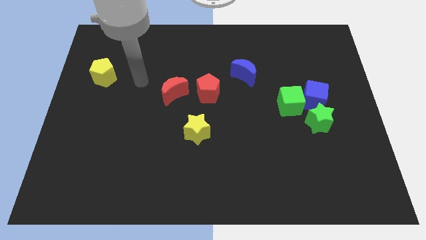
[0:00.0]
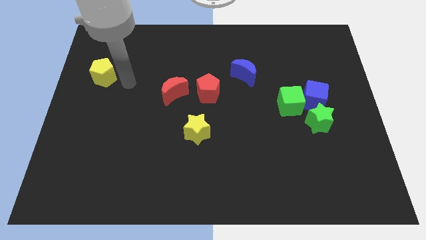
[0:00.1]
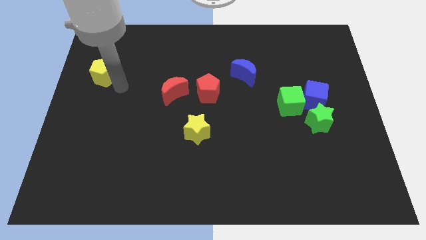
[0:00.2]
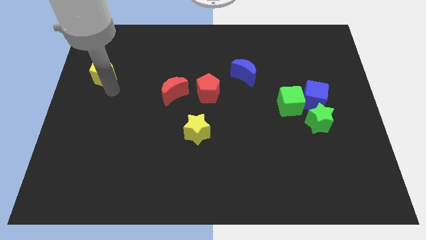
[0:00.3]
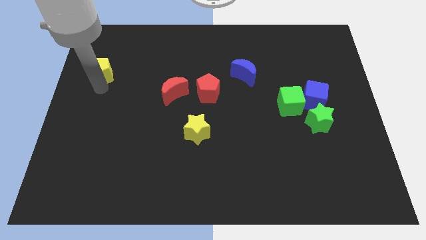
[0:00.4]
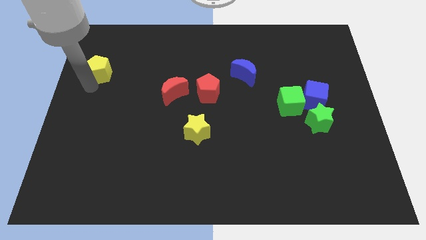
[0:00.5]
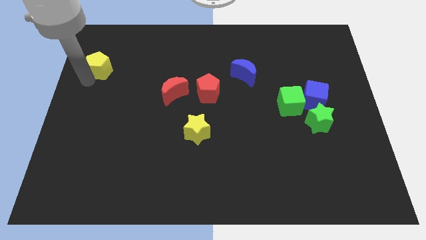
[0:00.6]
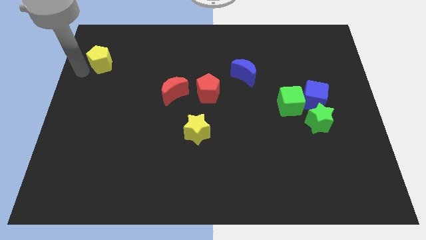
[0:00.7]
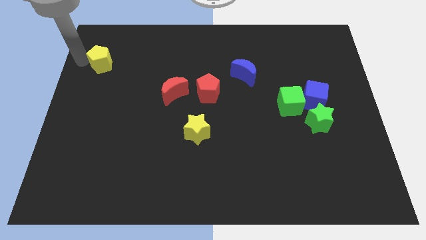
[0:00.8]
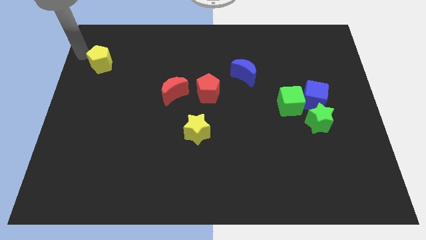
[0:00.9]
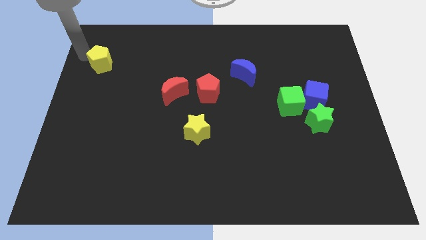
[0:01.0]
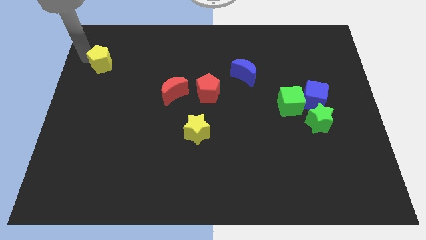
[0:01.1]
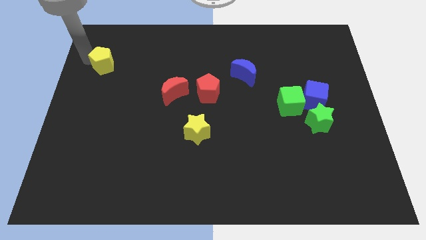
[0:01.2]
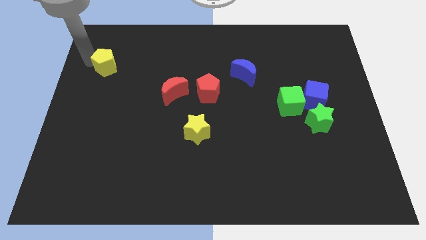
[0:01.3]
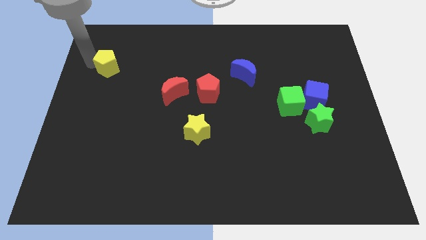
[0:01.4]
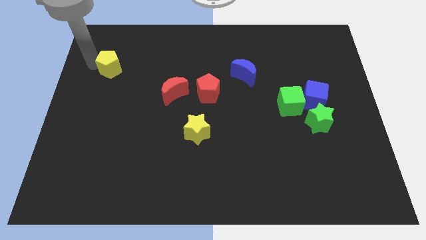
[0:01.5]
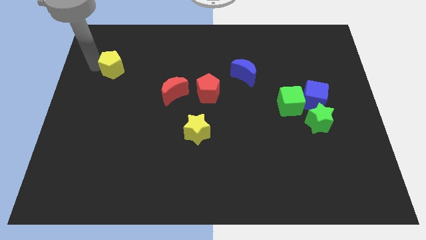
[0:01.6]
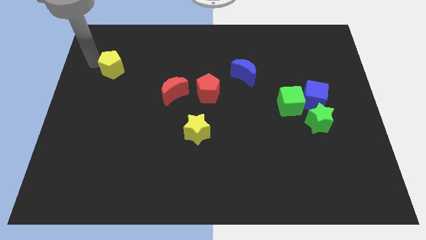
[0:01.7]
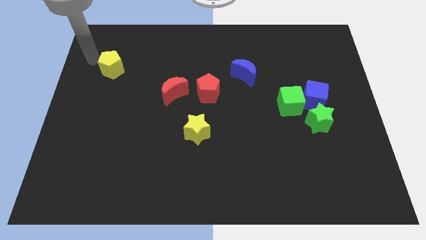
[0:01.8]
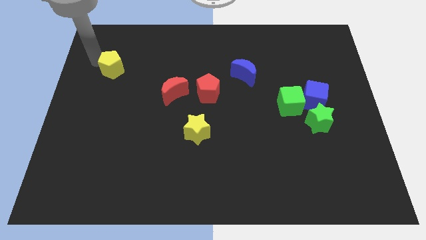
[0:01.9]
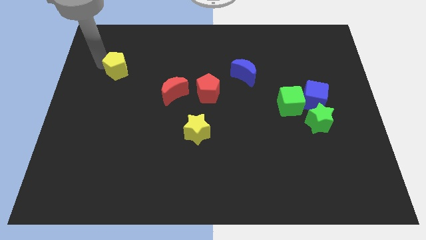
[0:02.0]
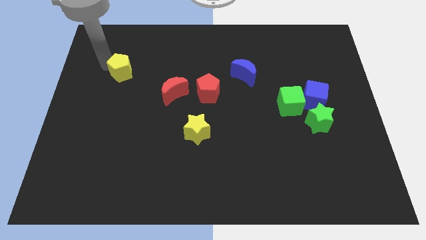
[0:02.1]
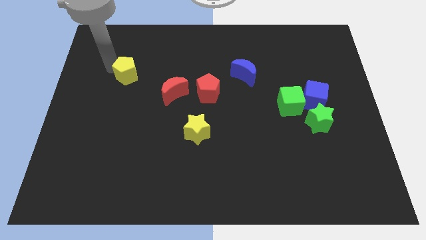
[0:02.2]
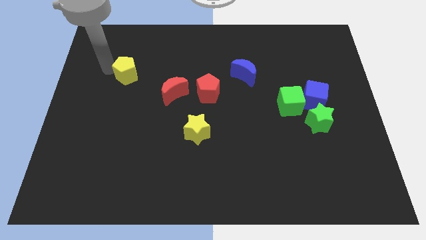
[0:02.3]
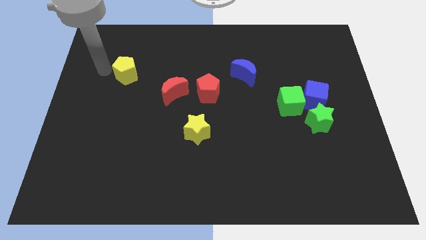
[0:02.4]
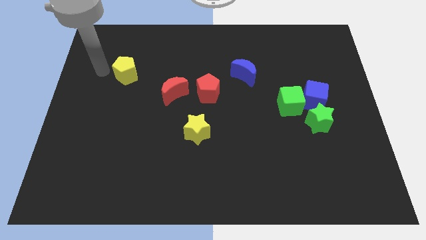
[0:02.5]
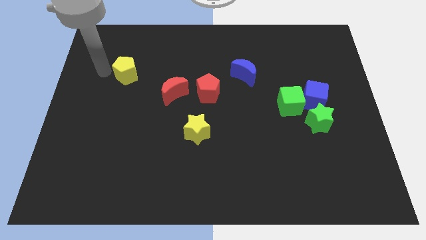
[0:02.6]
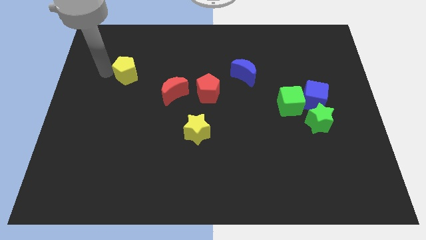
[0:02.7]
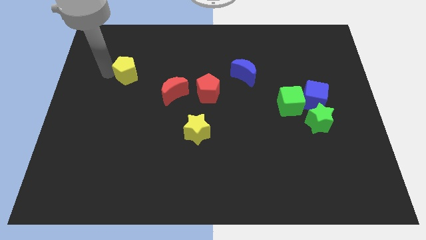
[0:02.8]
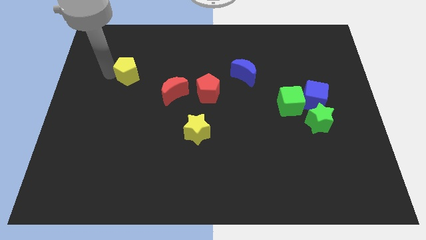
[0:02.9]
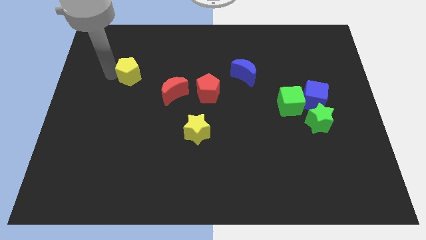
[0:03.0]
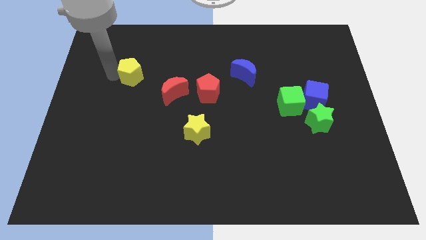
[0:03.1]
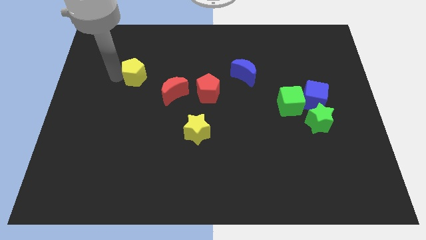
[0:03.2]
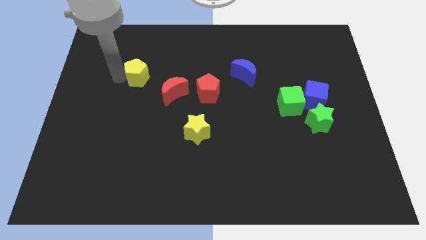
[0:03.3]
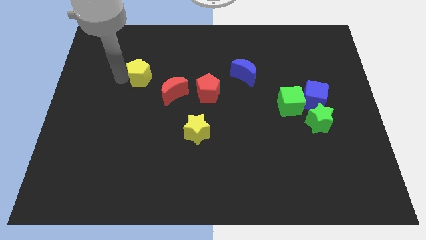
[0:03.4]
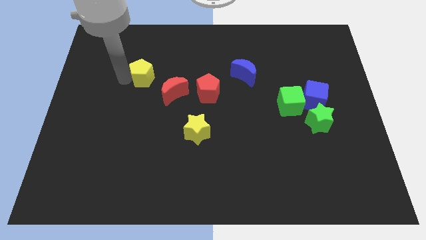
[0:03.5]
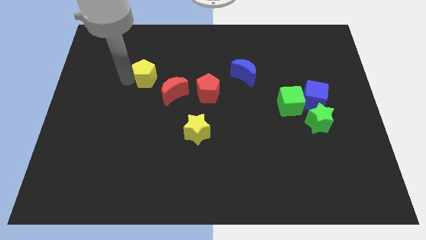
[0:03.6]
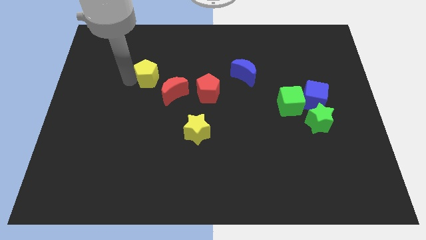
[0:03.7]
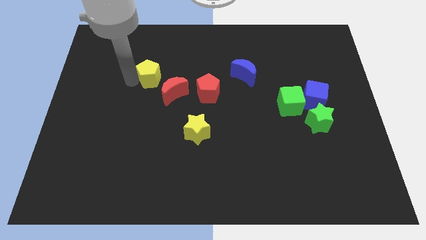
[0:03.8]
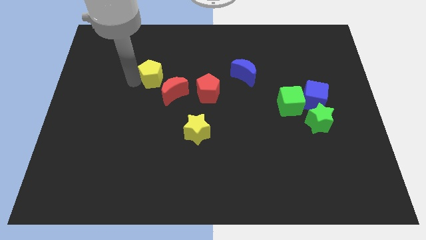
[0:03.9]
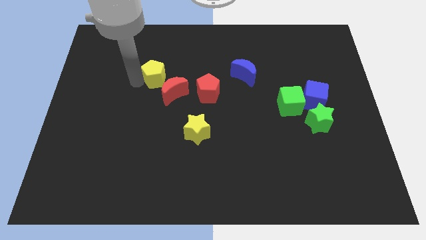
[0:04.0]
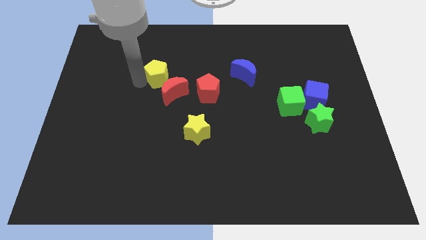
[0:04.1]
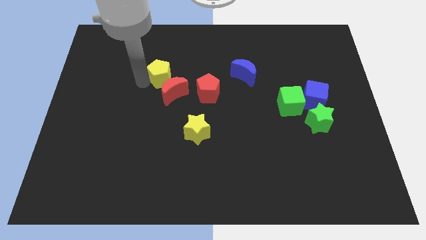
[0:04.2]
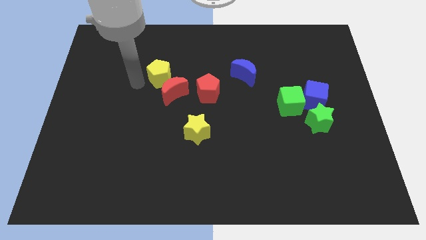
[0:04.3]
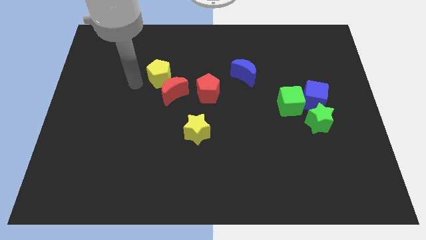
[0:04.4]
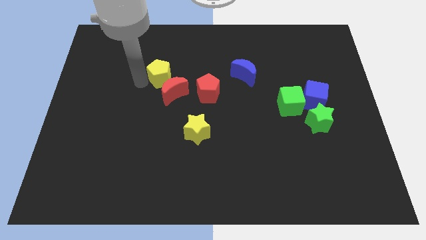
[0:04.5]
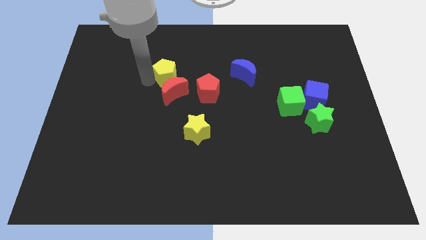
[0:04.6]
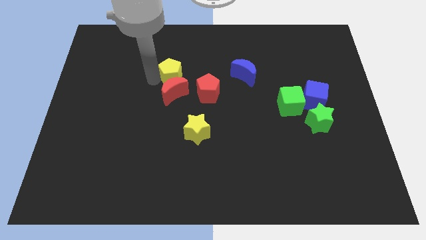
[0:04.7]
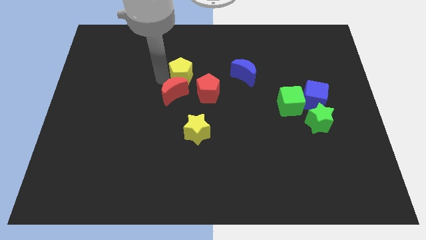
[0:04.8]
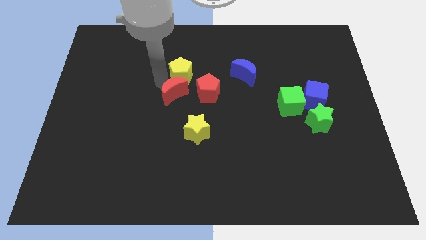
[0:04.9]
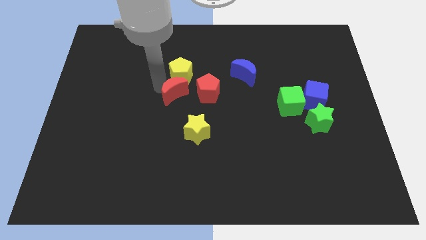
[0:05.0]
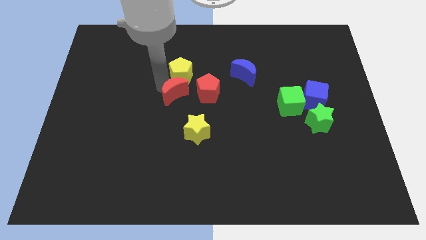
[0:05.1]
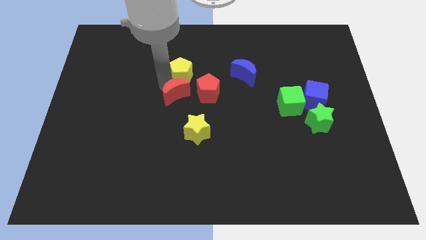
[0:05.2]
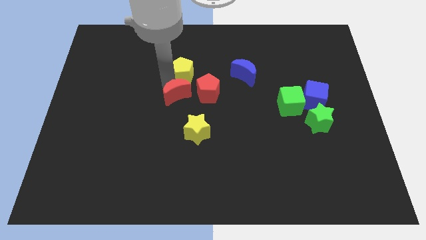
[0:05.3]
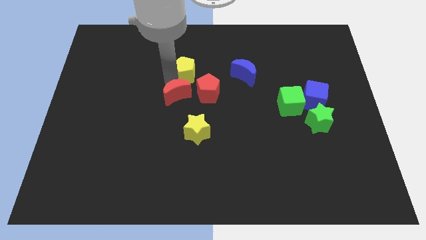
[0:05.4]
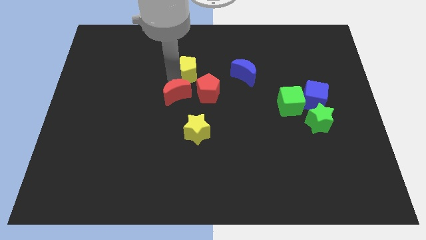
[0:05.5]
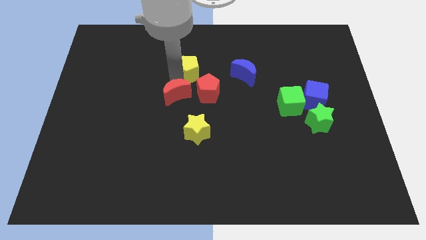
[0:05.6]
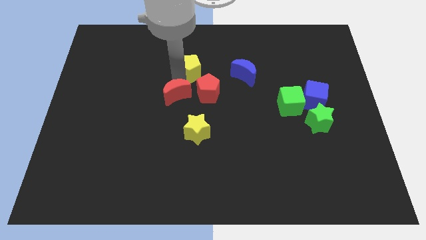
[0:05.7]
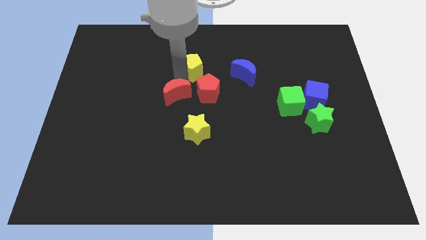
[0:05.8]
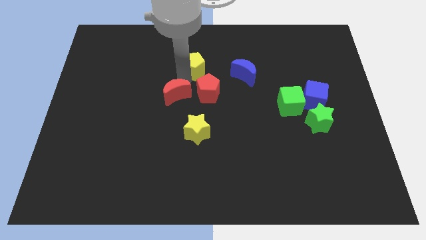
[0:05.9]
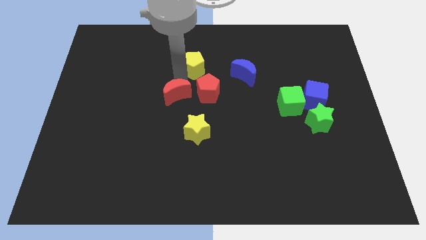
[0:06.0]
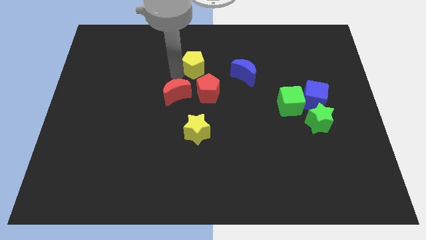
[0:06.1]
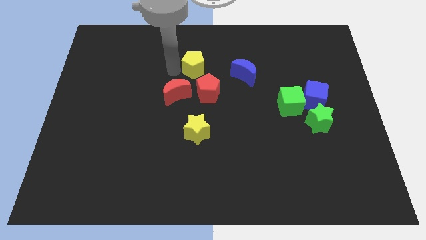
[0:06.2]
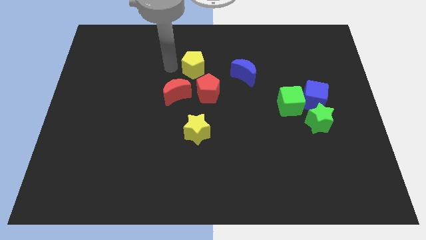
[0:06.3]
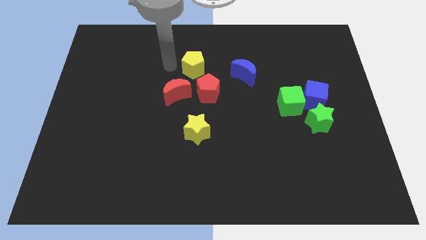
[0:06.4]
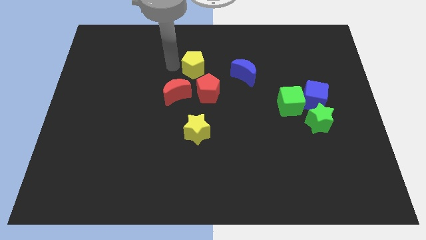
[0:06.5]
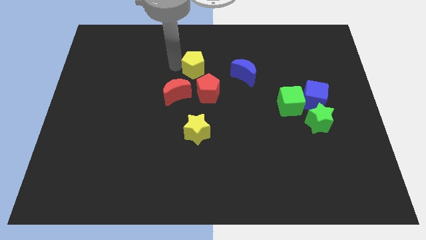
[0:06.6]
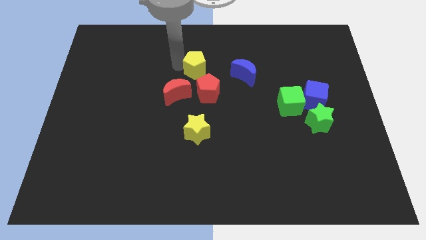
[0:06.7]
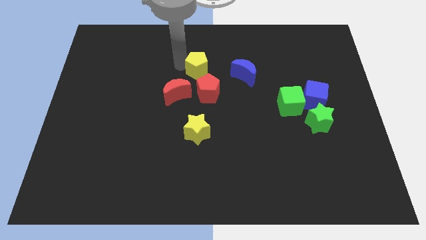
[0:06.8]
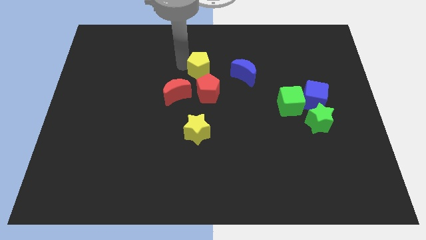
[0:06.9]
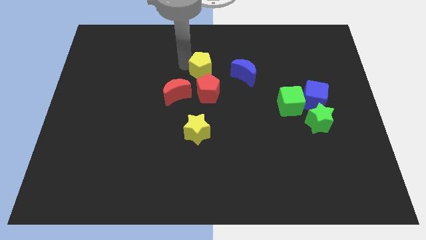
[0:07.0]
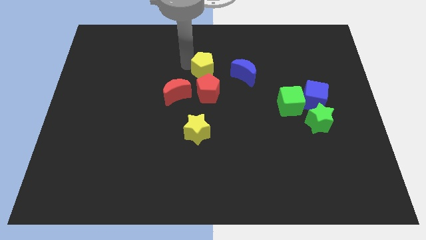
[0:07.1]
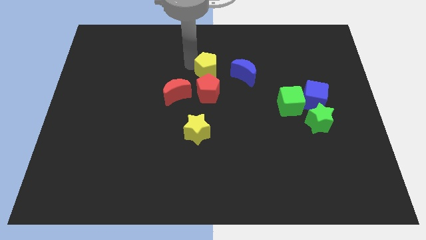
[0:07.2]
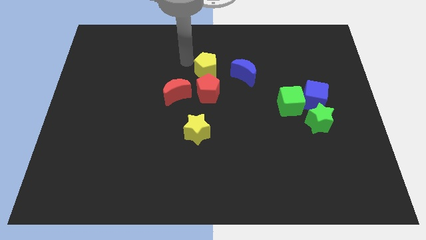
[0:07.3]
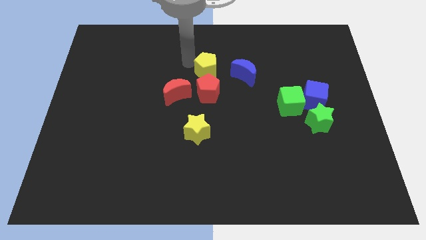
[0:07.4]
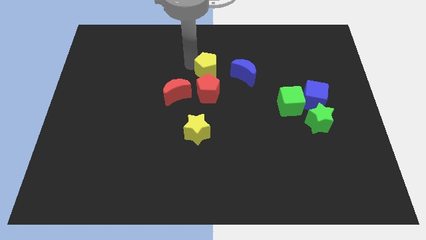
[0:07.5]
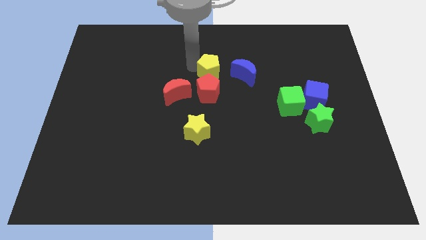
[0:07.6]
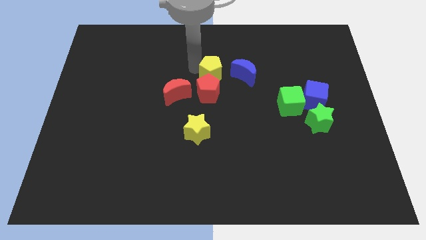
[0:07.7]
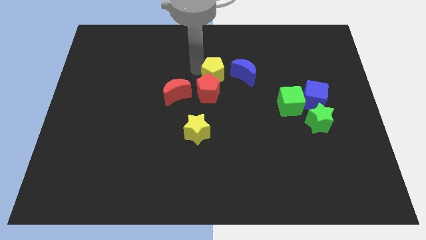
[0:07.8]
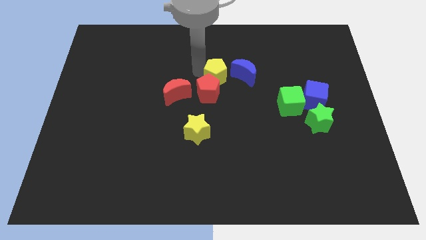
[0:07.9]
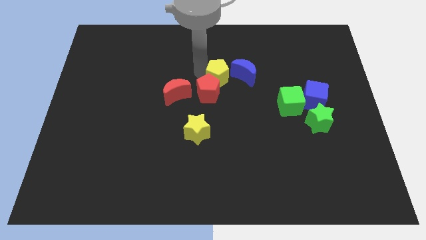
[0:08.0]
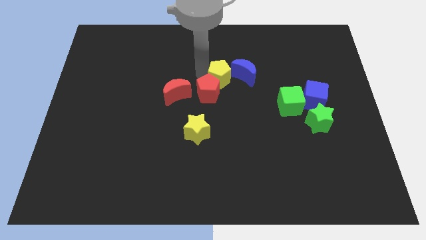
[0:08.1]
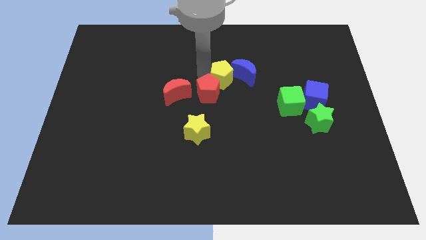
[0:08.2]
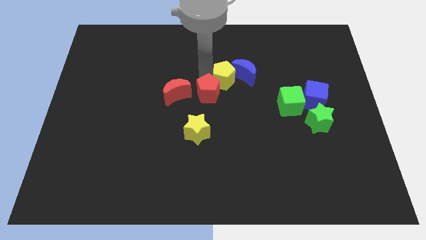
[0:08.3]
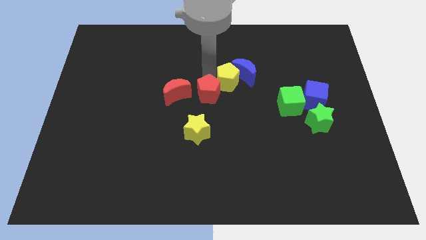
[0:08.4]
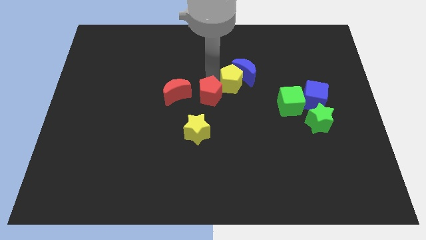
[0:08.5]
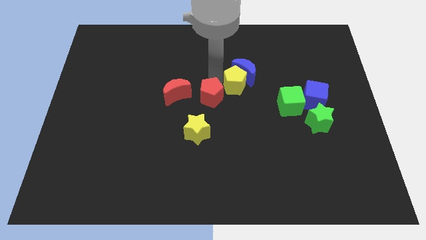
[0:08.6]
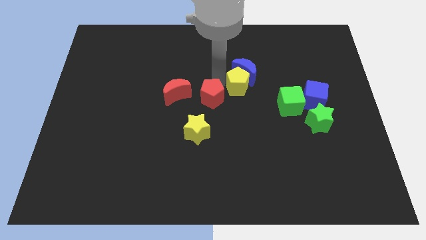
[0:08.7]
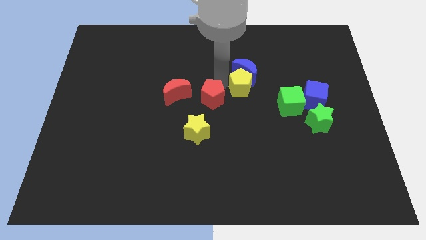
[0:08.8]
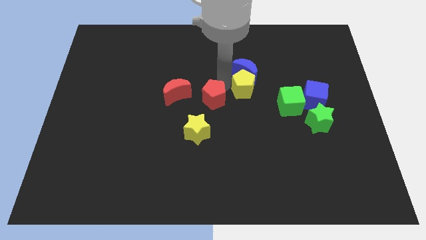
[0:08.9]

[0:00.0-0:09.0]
push the yellow pentagon diagonally up and to the left of the green cube
